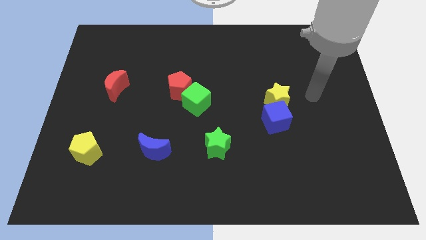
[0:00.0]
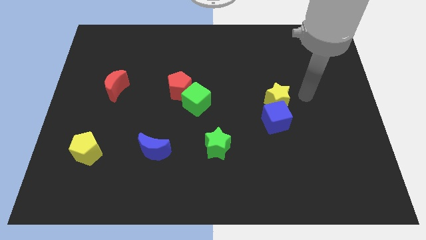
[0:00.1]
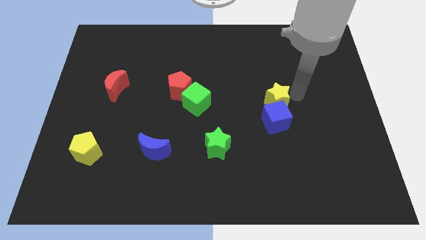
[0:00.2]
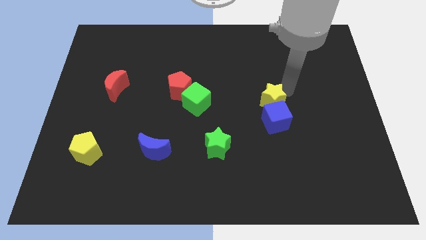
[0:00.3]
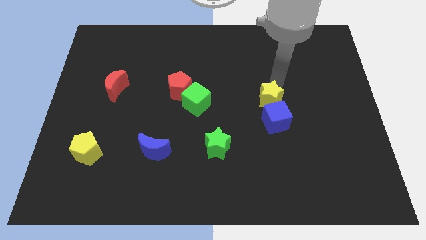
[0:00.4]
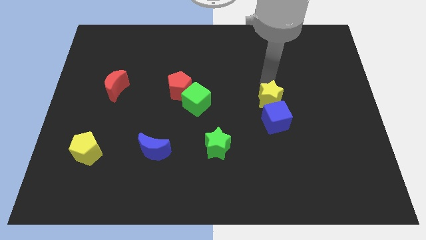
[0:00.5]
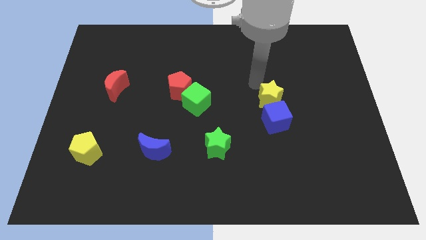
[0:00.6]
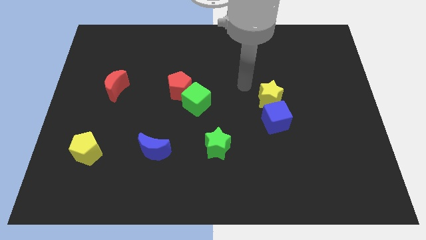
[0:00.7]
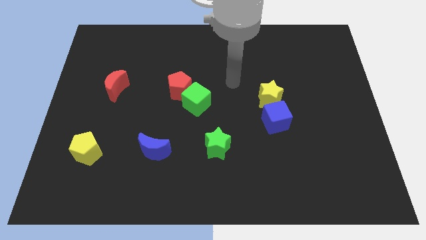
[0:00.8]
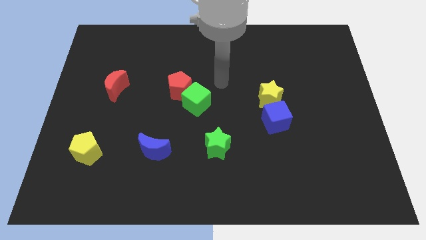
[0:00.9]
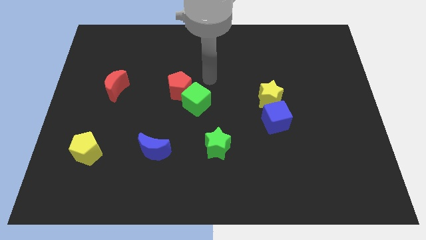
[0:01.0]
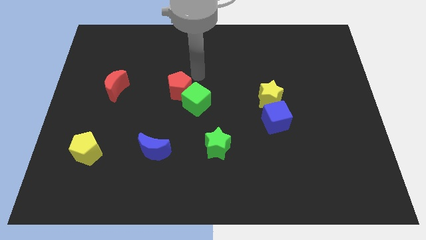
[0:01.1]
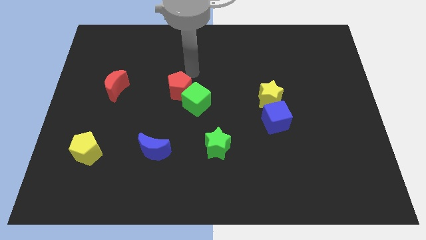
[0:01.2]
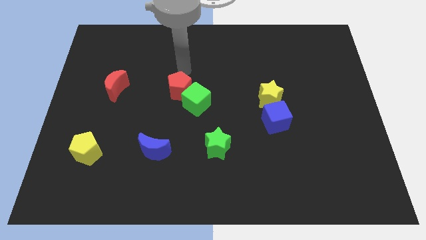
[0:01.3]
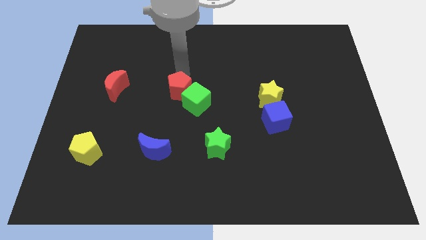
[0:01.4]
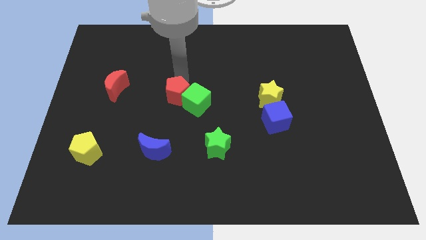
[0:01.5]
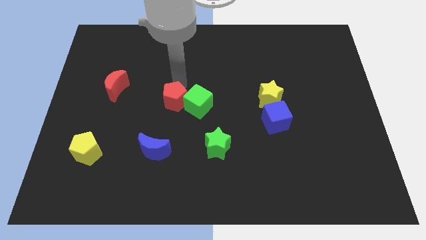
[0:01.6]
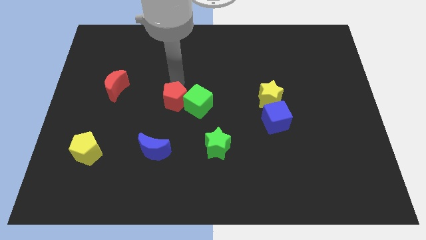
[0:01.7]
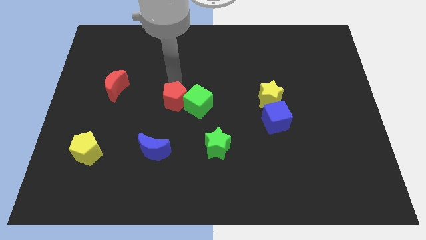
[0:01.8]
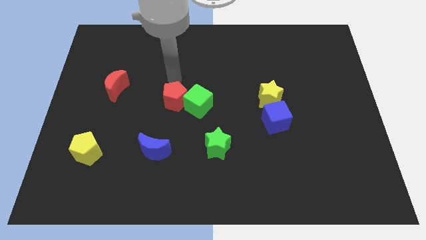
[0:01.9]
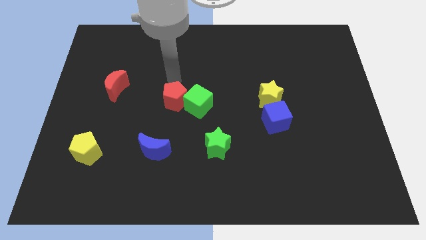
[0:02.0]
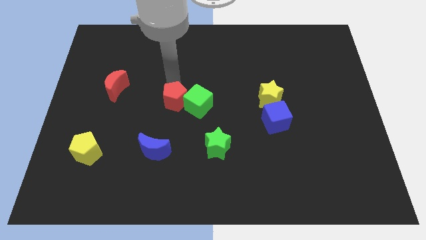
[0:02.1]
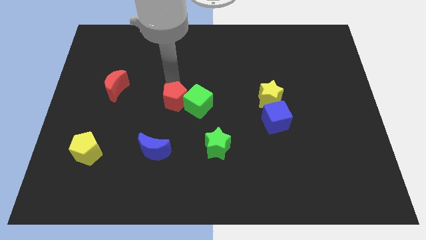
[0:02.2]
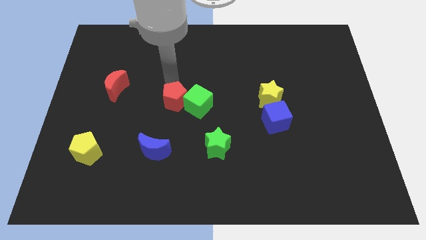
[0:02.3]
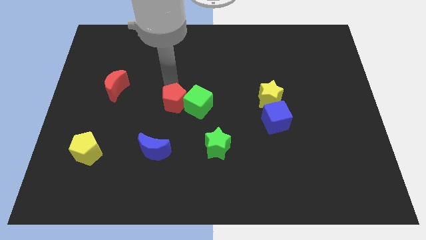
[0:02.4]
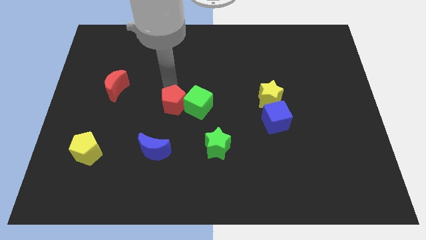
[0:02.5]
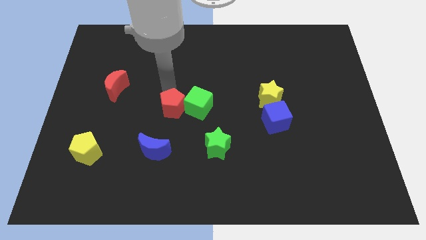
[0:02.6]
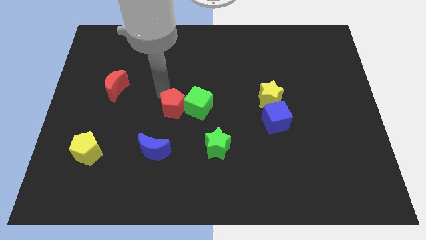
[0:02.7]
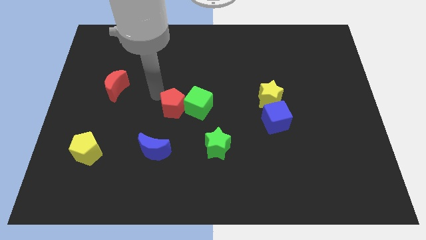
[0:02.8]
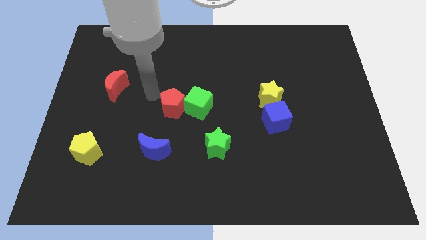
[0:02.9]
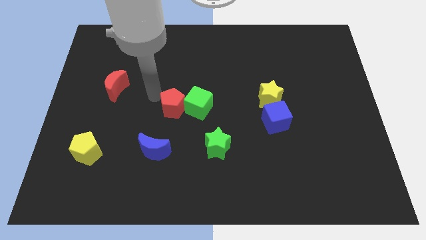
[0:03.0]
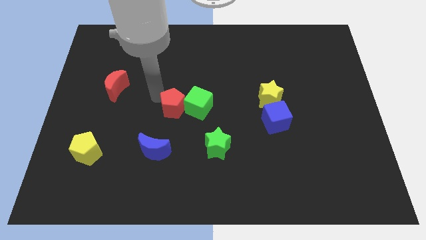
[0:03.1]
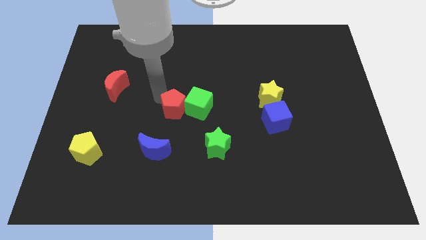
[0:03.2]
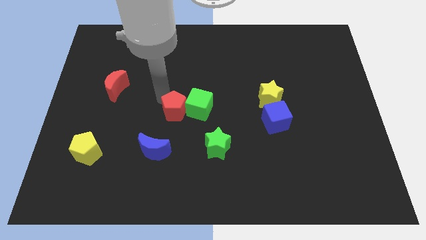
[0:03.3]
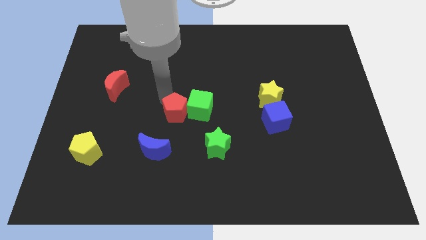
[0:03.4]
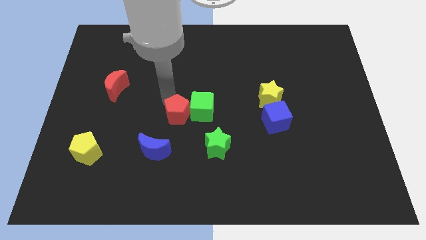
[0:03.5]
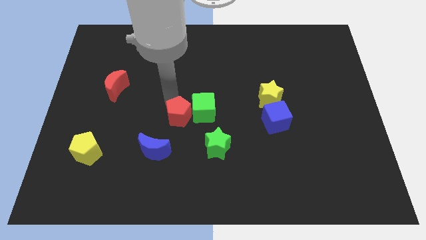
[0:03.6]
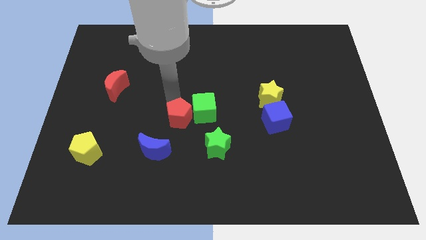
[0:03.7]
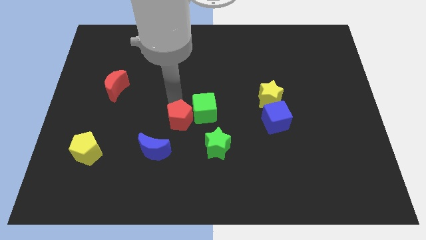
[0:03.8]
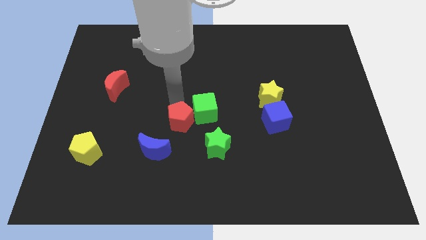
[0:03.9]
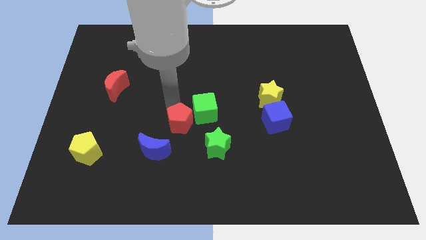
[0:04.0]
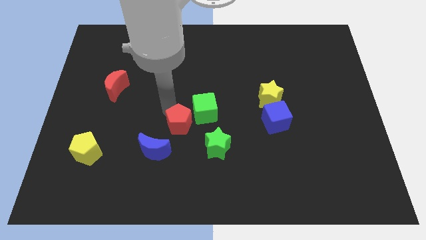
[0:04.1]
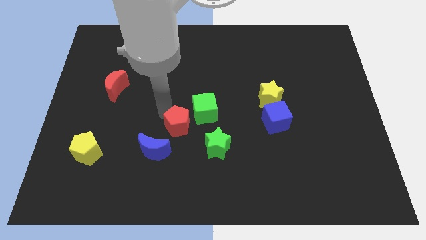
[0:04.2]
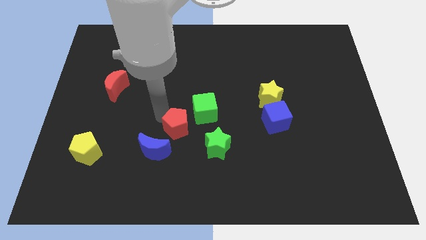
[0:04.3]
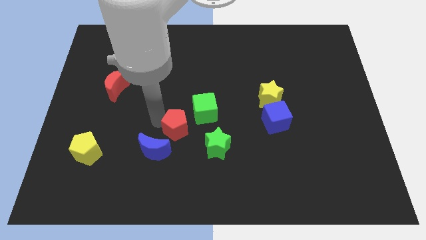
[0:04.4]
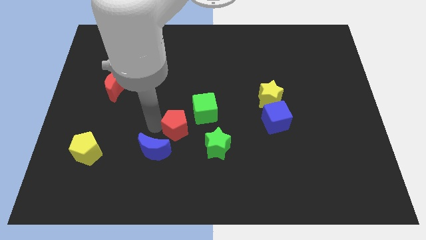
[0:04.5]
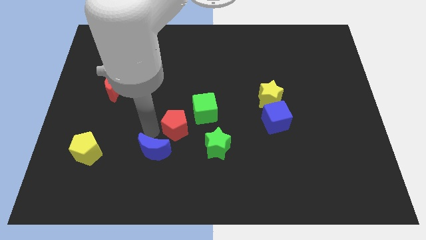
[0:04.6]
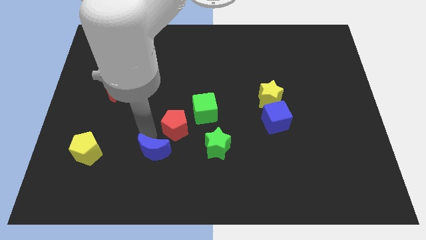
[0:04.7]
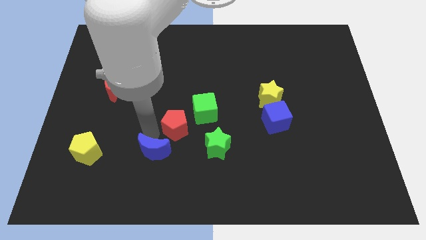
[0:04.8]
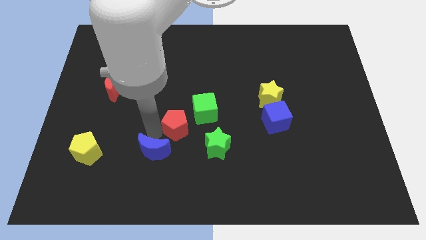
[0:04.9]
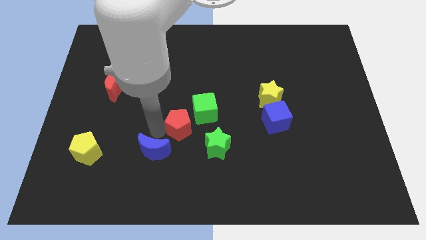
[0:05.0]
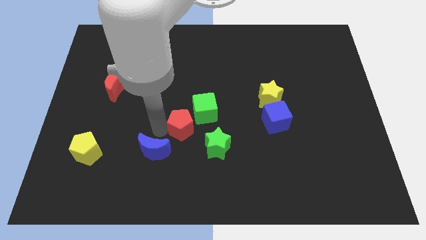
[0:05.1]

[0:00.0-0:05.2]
slide the red pentagon diagonally downwards and to the right a little bit

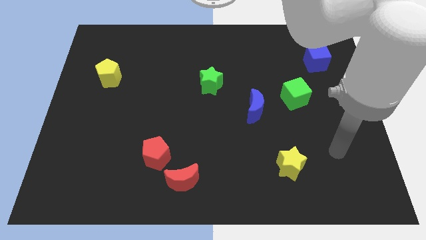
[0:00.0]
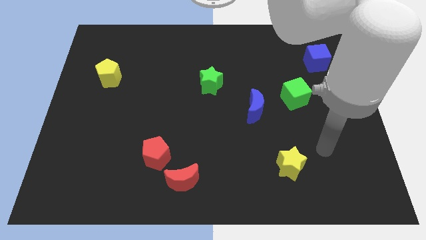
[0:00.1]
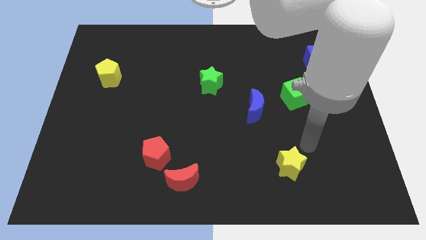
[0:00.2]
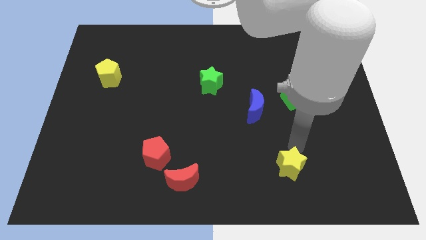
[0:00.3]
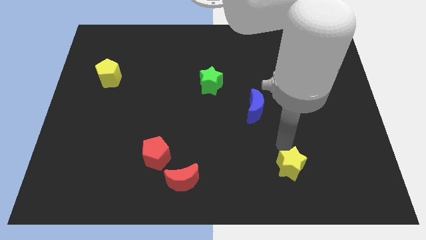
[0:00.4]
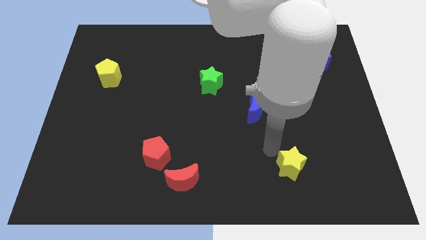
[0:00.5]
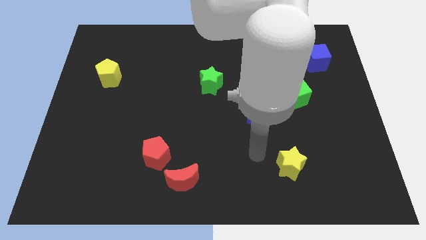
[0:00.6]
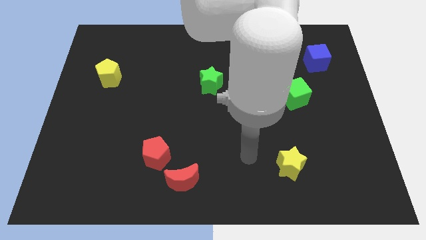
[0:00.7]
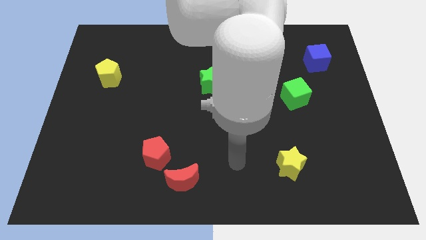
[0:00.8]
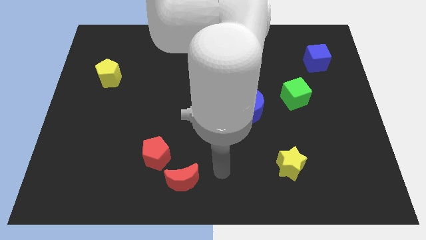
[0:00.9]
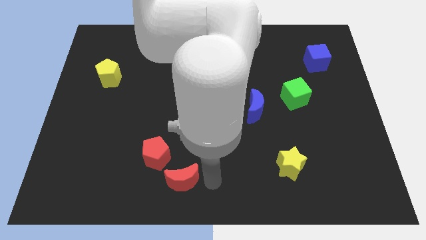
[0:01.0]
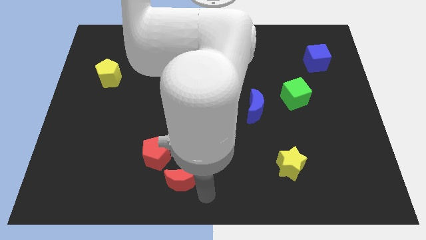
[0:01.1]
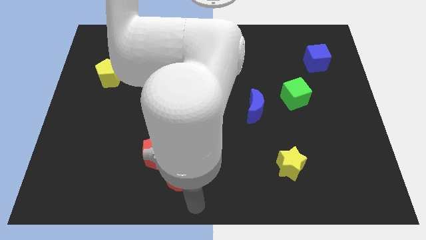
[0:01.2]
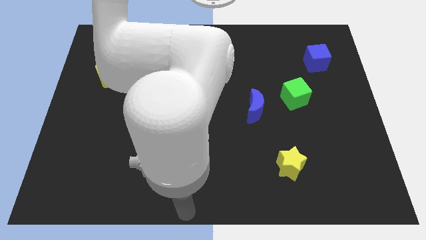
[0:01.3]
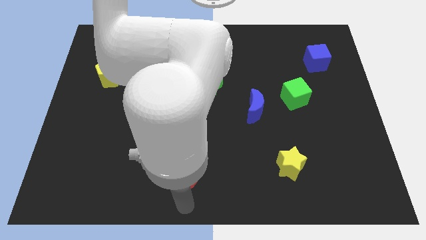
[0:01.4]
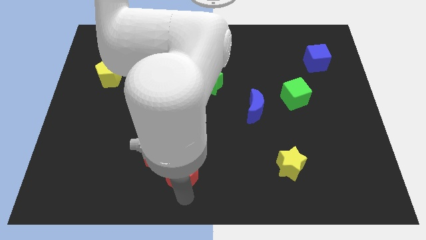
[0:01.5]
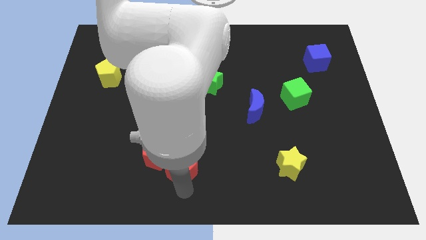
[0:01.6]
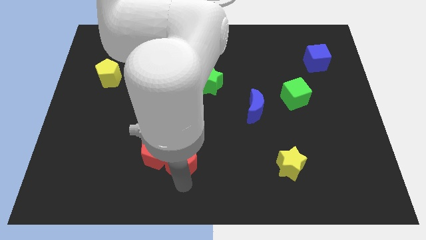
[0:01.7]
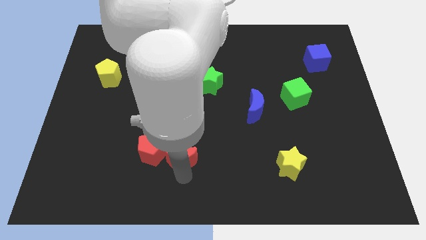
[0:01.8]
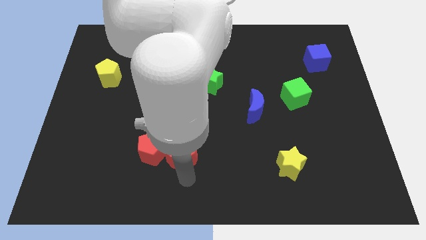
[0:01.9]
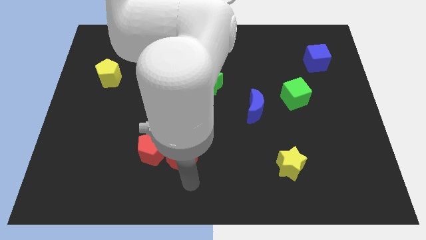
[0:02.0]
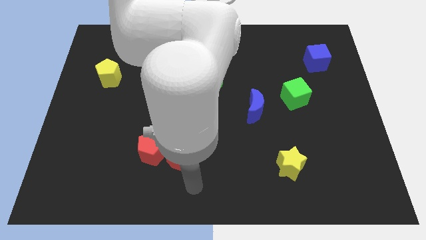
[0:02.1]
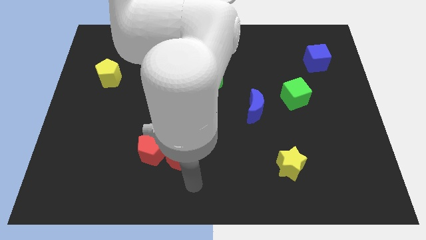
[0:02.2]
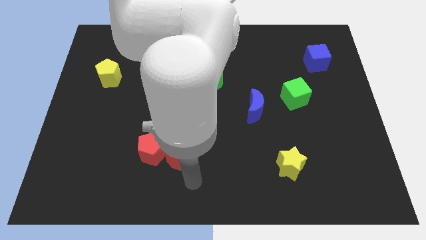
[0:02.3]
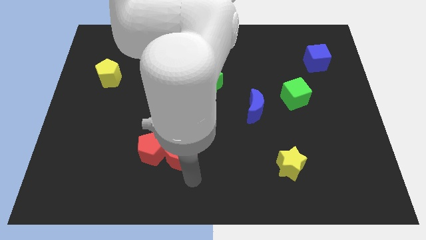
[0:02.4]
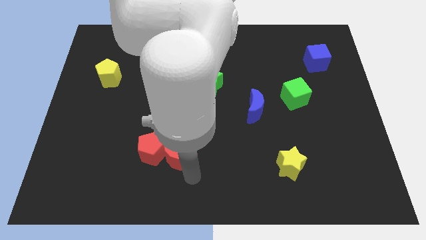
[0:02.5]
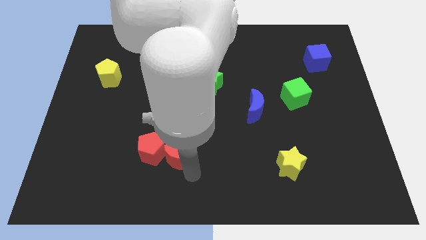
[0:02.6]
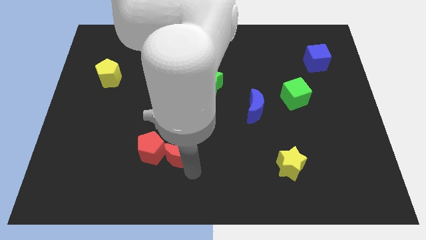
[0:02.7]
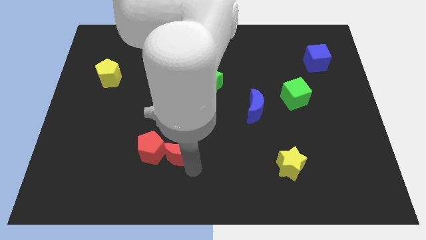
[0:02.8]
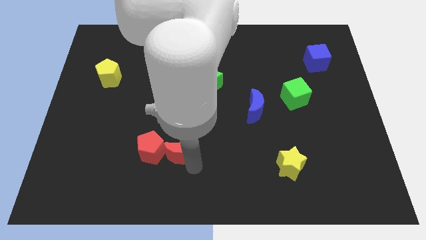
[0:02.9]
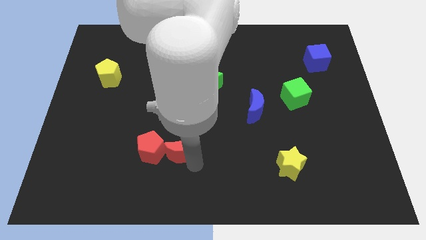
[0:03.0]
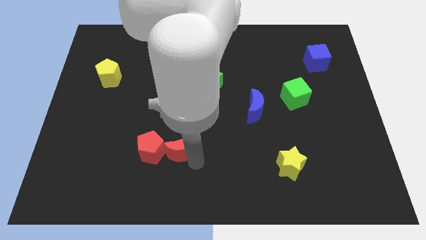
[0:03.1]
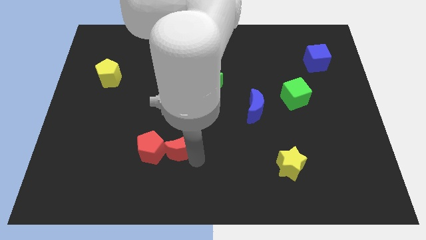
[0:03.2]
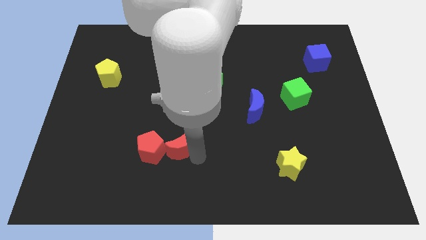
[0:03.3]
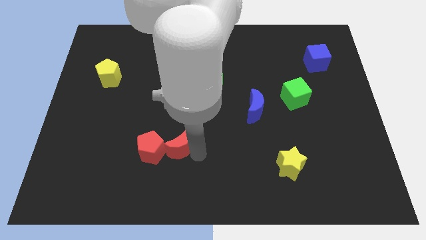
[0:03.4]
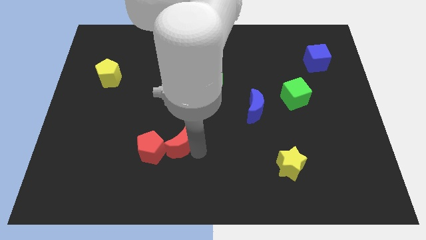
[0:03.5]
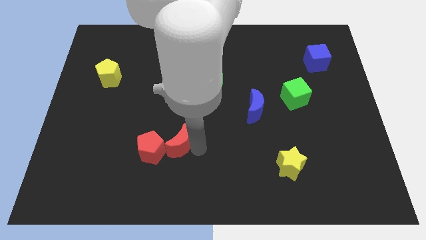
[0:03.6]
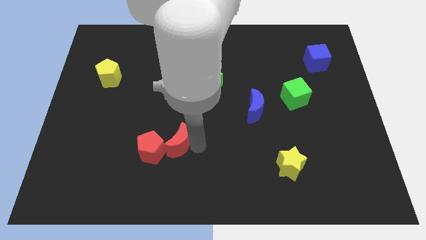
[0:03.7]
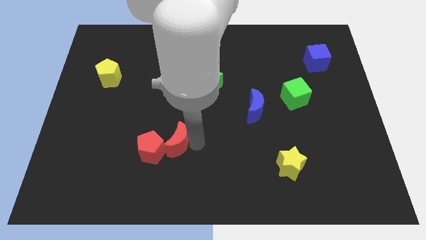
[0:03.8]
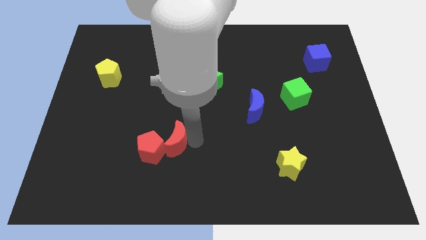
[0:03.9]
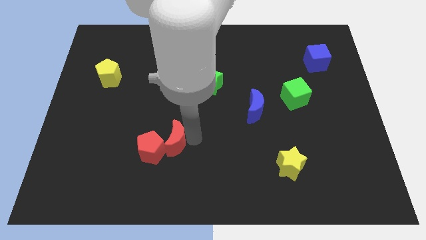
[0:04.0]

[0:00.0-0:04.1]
slide the red moon a little up and then to the left
